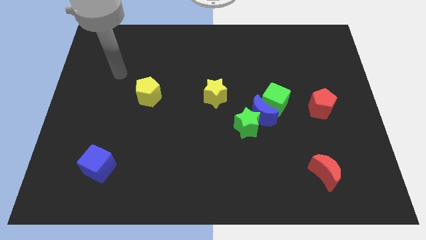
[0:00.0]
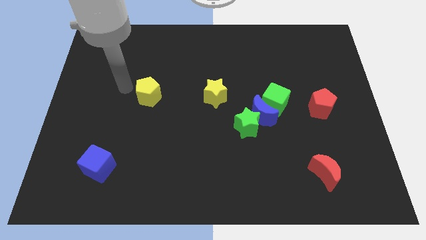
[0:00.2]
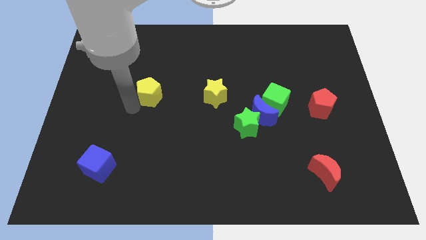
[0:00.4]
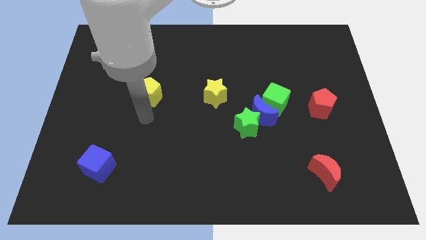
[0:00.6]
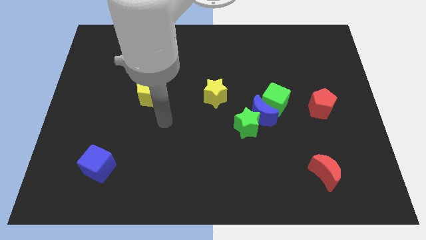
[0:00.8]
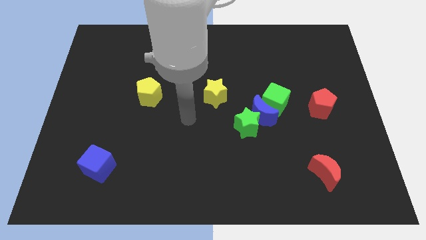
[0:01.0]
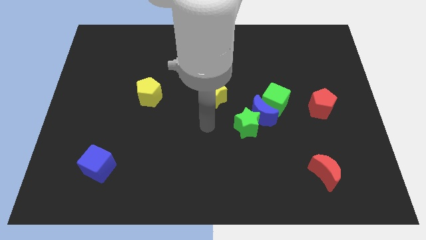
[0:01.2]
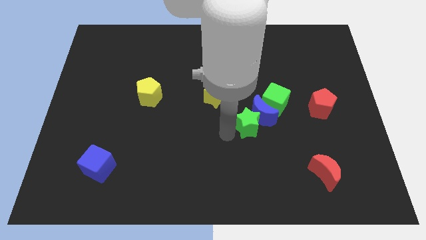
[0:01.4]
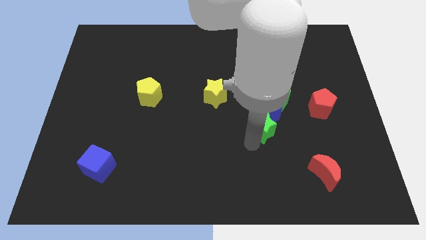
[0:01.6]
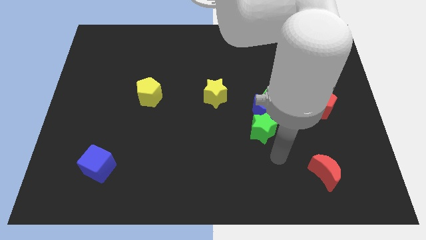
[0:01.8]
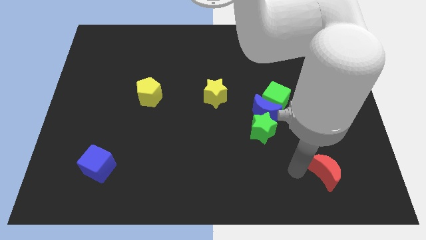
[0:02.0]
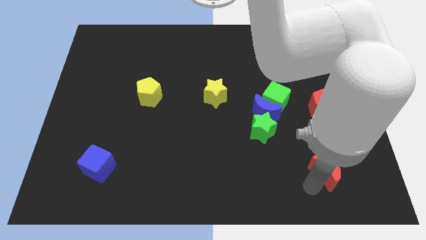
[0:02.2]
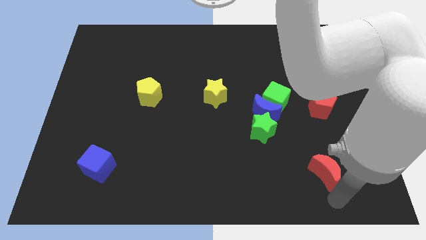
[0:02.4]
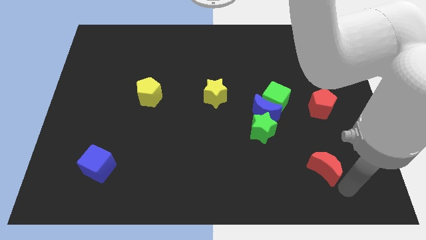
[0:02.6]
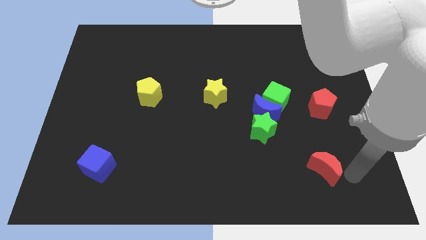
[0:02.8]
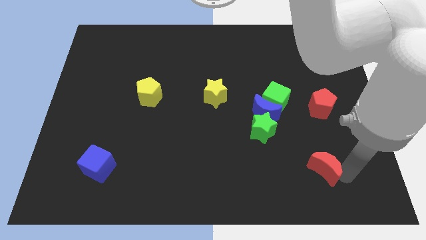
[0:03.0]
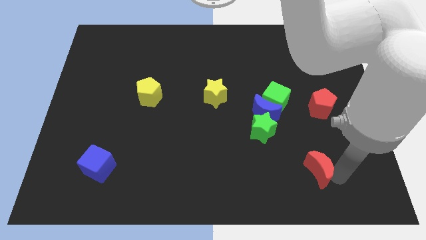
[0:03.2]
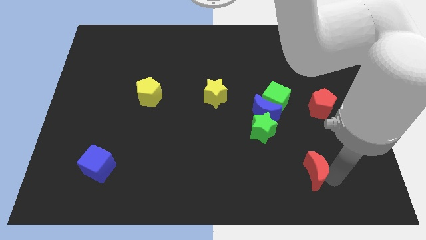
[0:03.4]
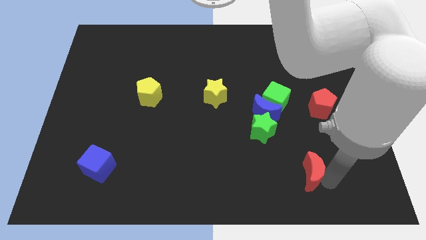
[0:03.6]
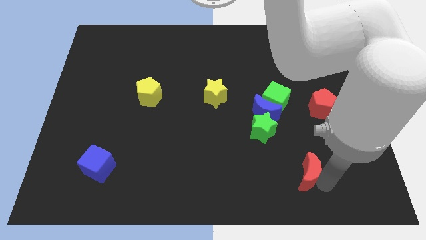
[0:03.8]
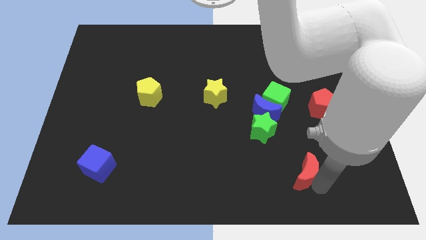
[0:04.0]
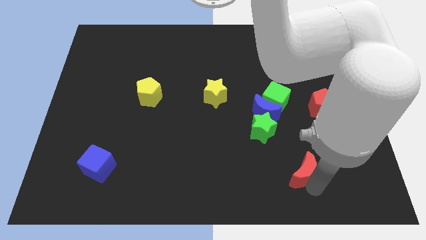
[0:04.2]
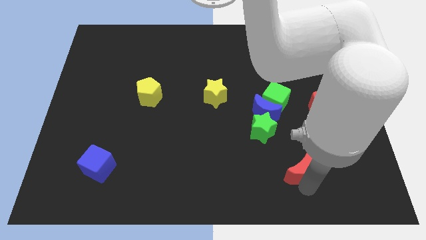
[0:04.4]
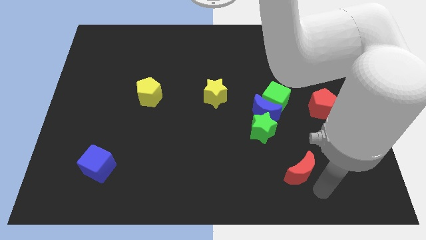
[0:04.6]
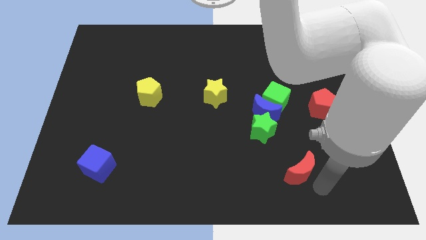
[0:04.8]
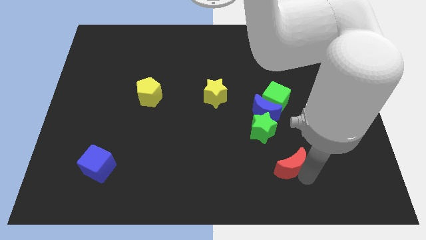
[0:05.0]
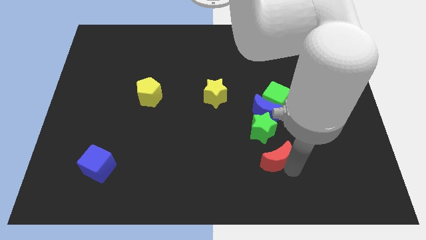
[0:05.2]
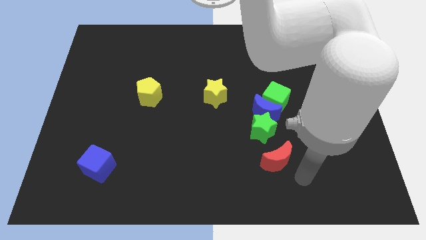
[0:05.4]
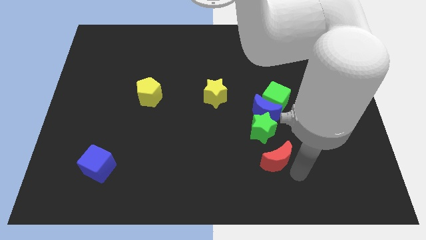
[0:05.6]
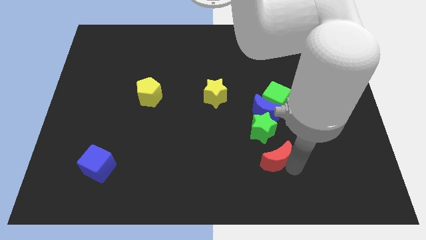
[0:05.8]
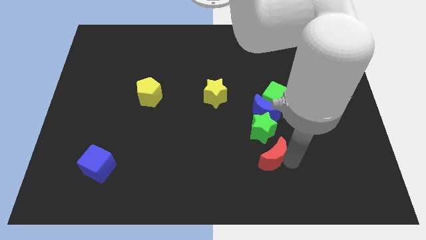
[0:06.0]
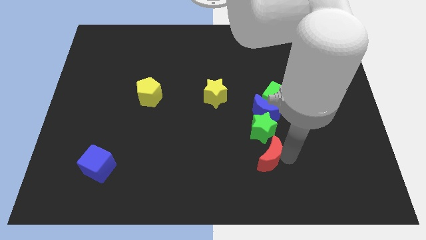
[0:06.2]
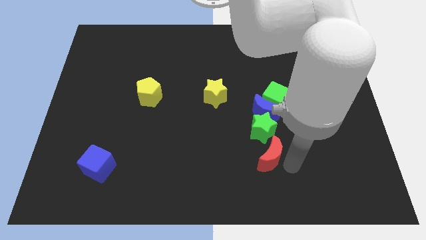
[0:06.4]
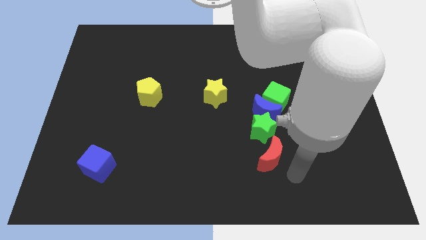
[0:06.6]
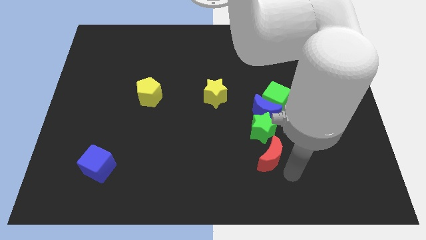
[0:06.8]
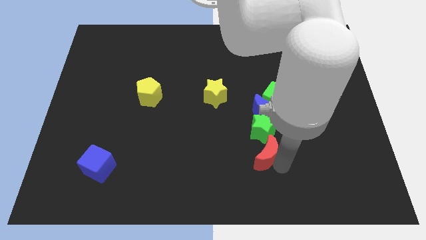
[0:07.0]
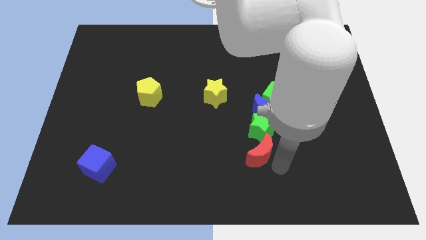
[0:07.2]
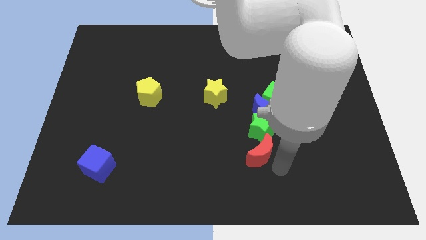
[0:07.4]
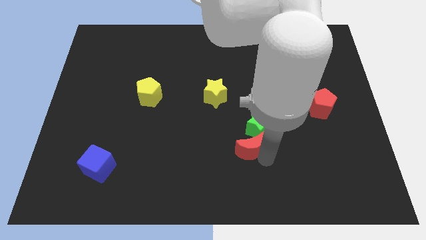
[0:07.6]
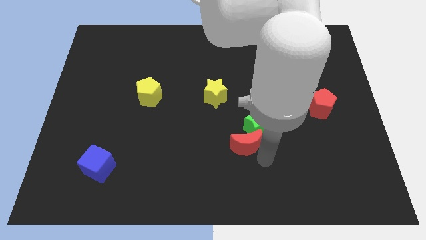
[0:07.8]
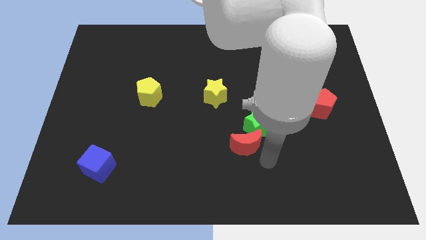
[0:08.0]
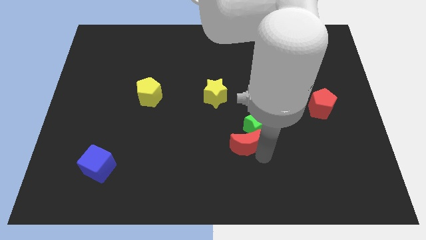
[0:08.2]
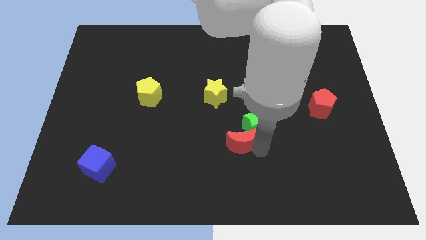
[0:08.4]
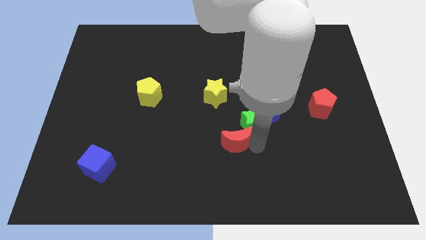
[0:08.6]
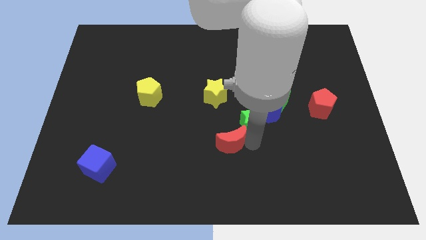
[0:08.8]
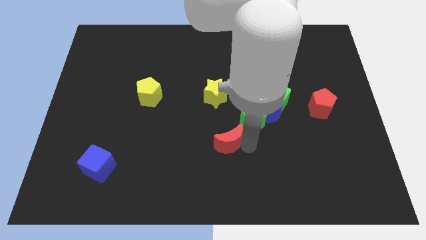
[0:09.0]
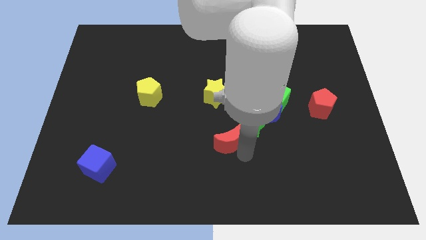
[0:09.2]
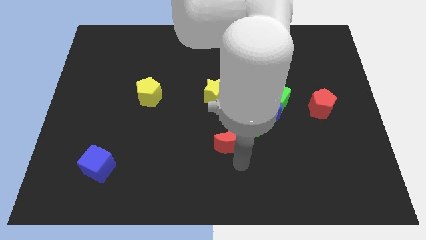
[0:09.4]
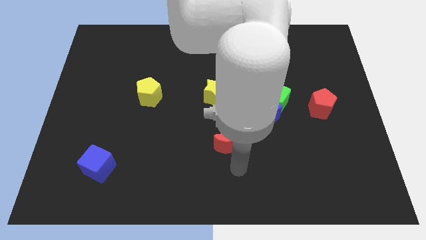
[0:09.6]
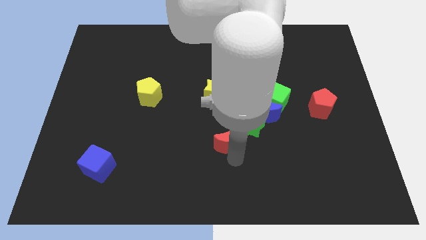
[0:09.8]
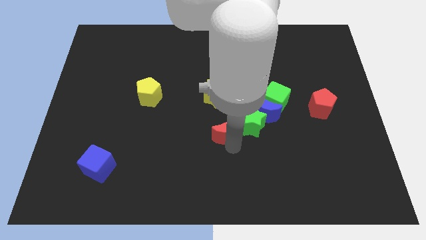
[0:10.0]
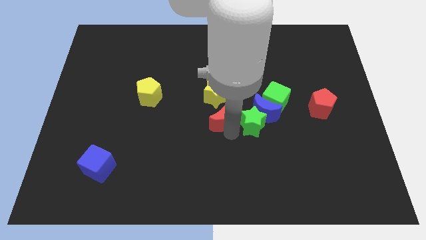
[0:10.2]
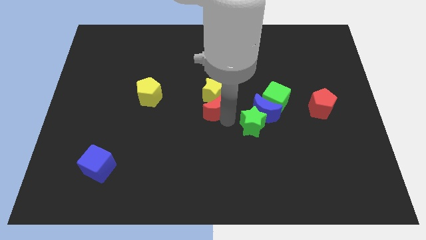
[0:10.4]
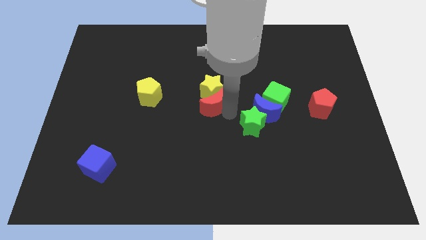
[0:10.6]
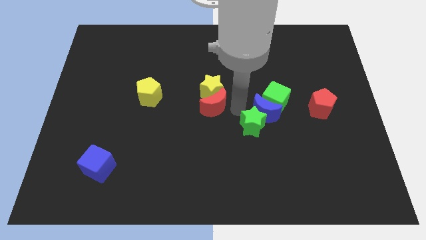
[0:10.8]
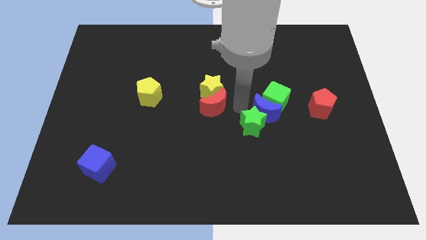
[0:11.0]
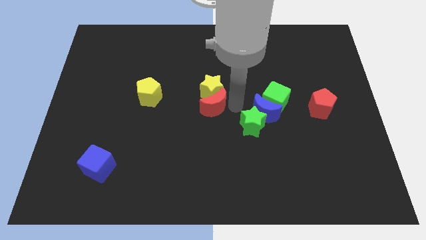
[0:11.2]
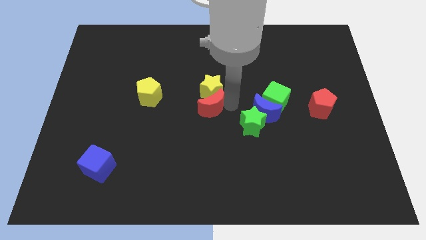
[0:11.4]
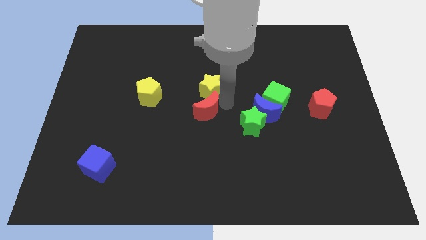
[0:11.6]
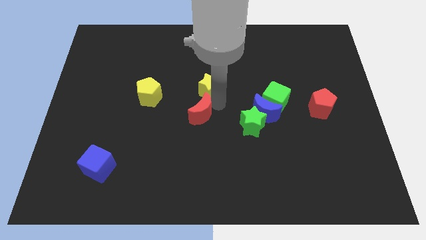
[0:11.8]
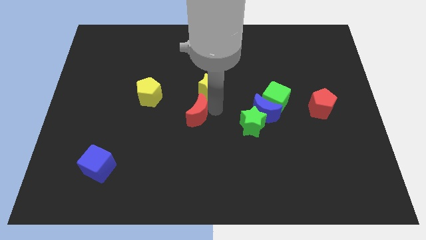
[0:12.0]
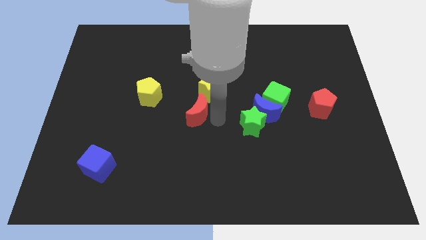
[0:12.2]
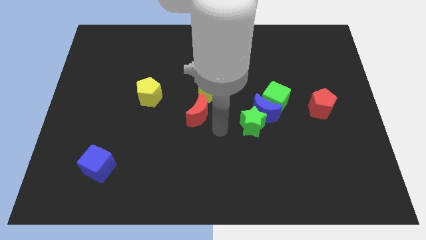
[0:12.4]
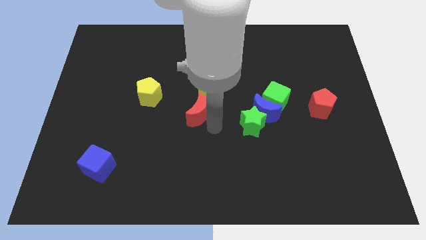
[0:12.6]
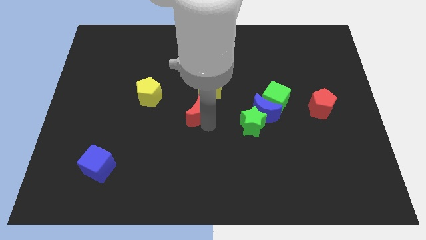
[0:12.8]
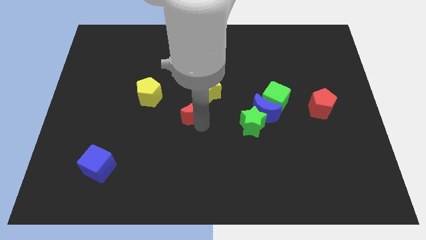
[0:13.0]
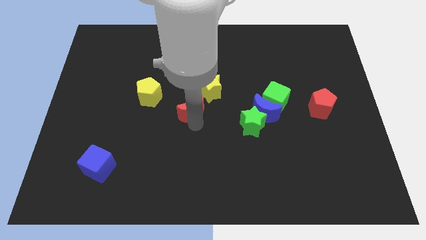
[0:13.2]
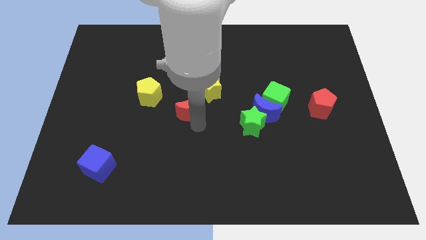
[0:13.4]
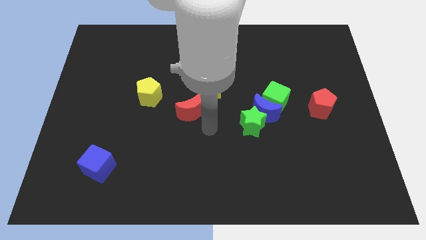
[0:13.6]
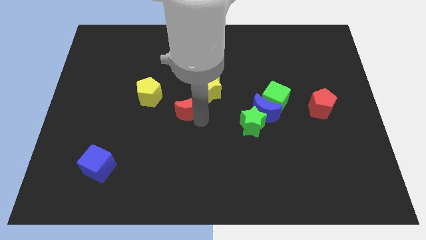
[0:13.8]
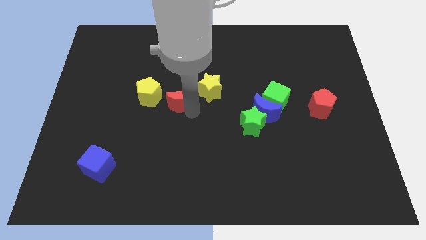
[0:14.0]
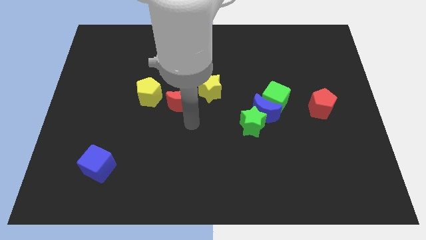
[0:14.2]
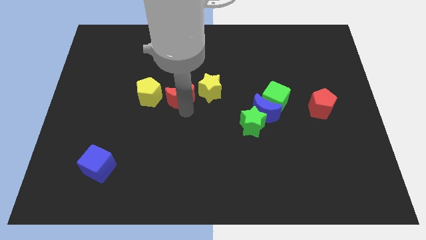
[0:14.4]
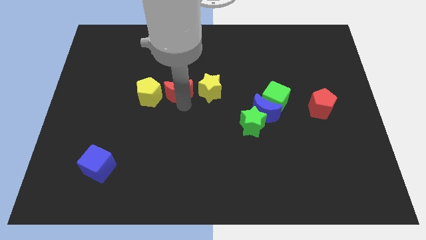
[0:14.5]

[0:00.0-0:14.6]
move the red moon to the top right of the yellow pentagon
